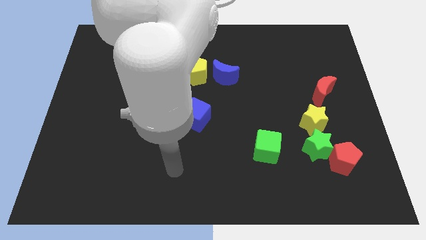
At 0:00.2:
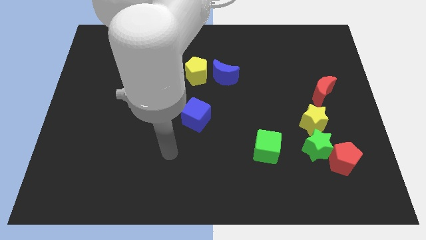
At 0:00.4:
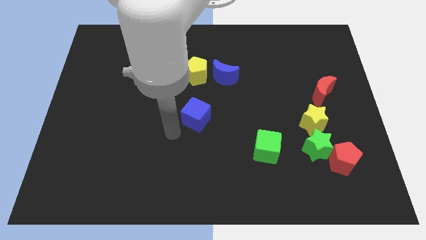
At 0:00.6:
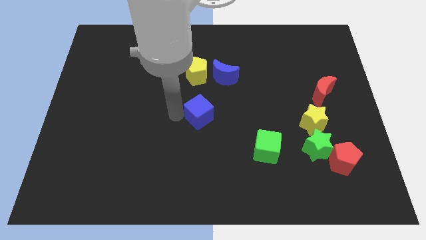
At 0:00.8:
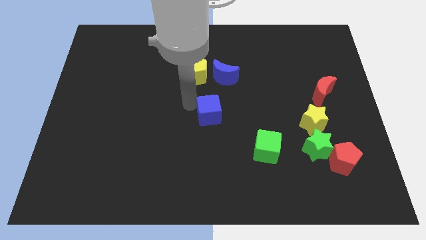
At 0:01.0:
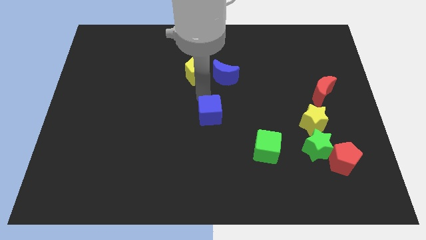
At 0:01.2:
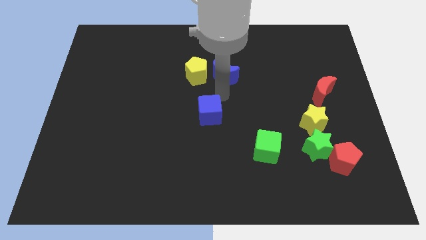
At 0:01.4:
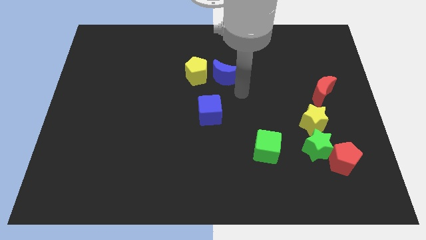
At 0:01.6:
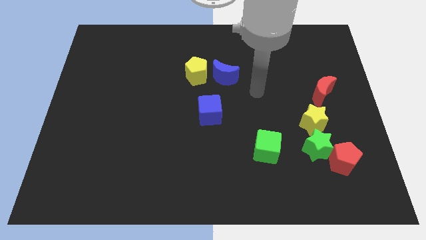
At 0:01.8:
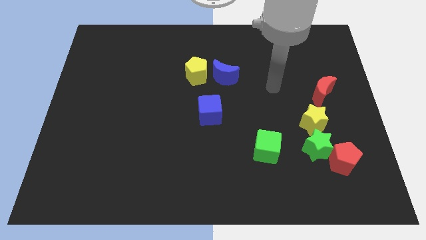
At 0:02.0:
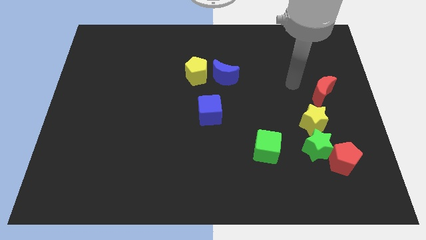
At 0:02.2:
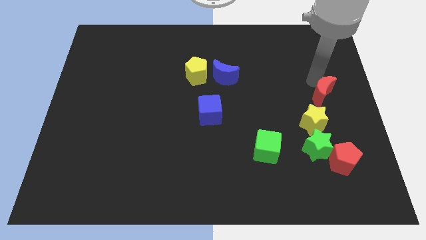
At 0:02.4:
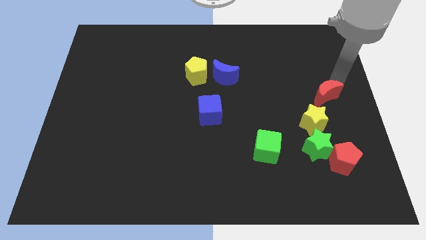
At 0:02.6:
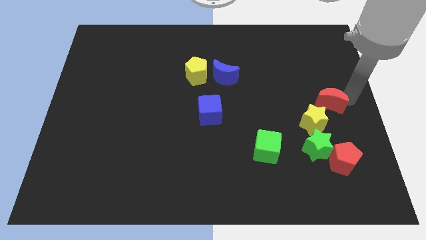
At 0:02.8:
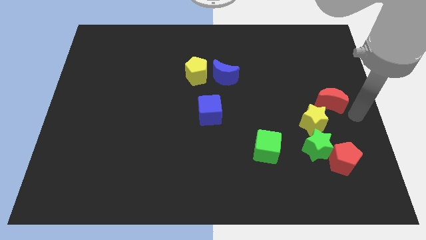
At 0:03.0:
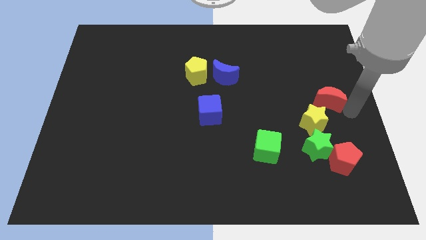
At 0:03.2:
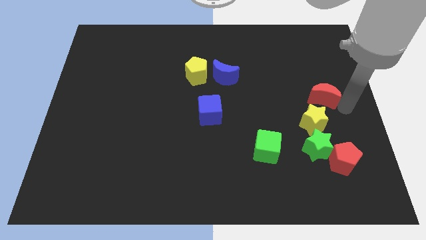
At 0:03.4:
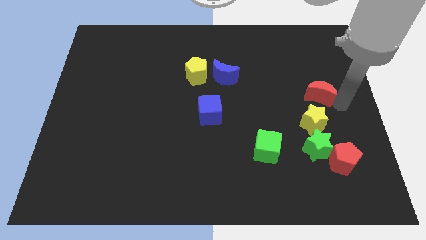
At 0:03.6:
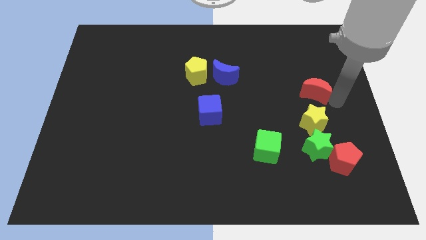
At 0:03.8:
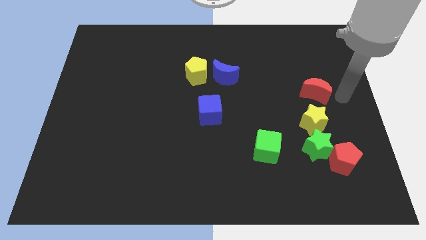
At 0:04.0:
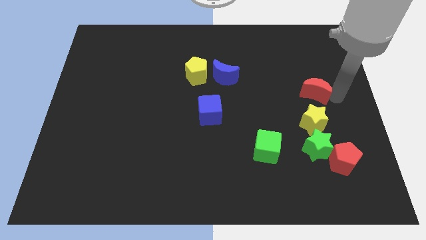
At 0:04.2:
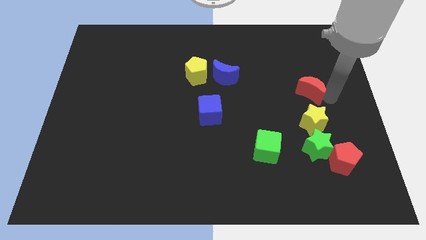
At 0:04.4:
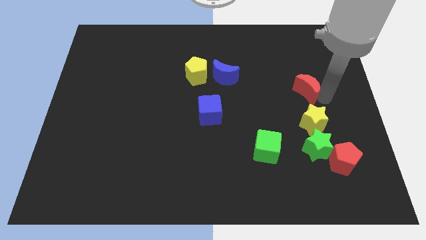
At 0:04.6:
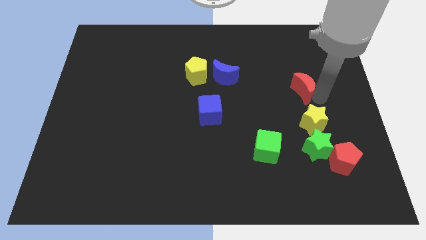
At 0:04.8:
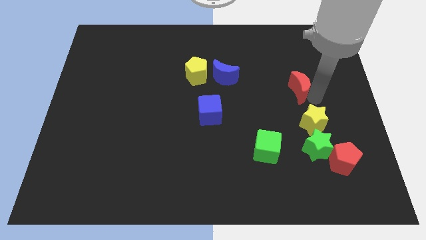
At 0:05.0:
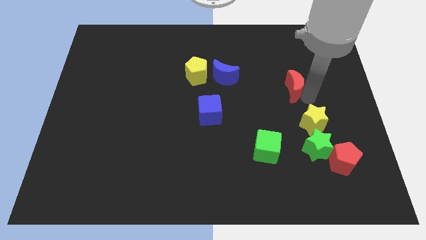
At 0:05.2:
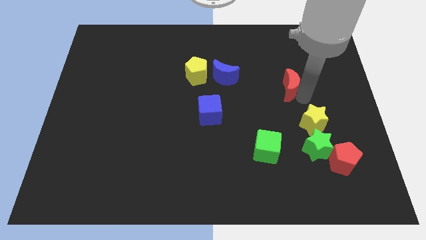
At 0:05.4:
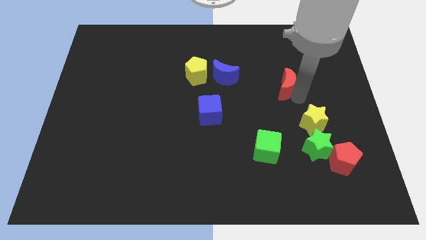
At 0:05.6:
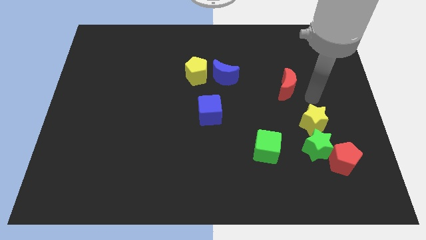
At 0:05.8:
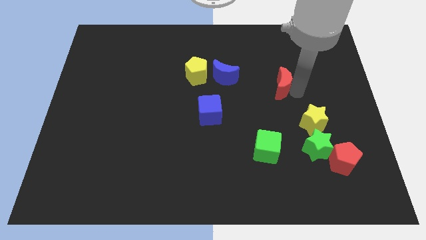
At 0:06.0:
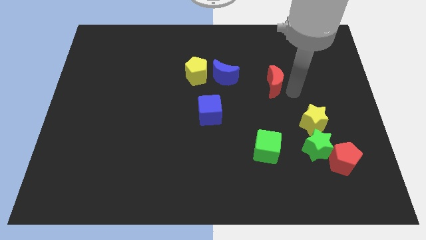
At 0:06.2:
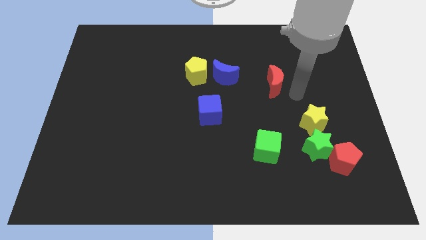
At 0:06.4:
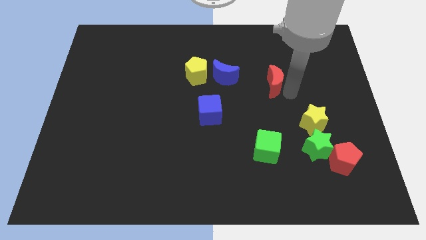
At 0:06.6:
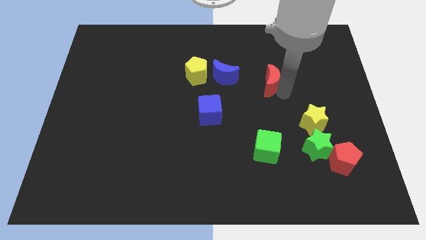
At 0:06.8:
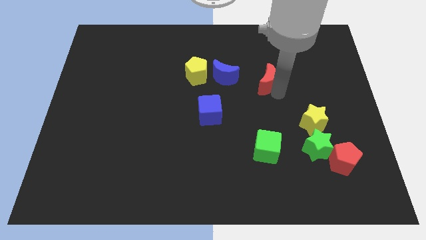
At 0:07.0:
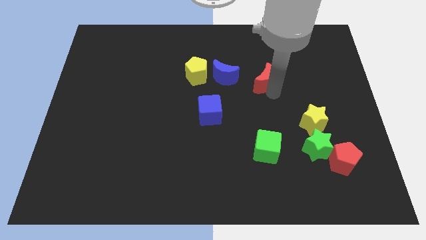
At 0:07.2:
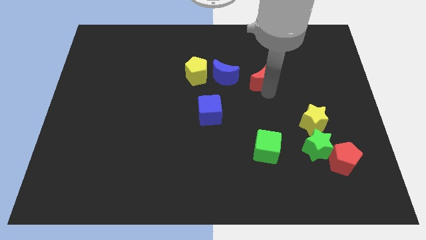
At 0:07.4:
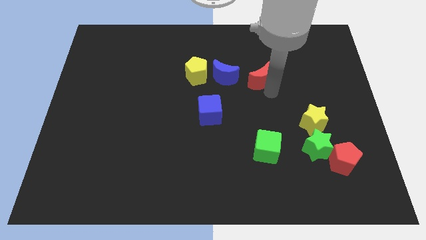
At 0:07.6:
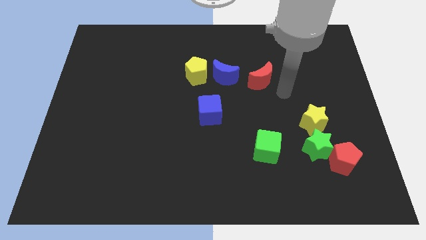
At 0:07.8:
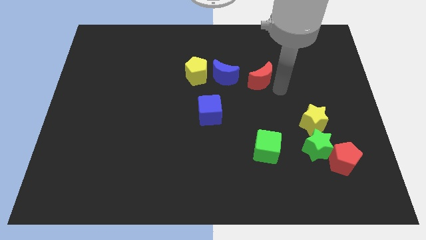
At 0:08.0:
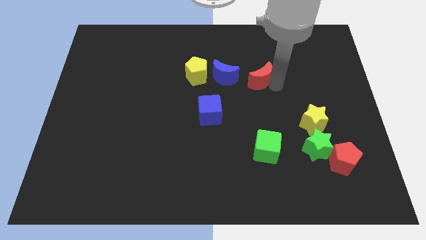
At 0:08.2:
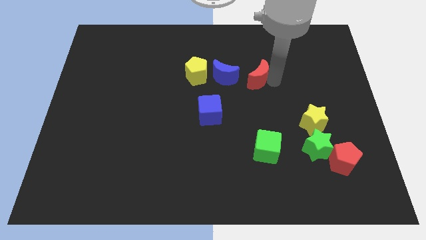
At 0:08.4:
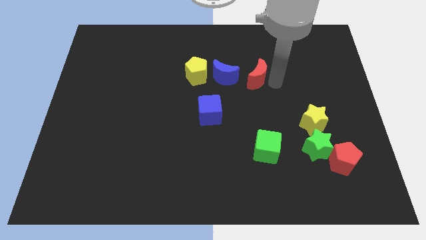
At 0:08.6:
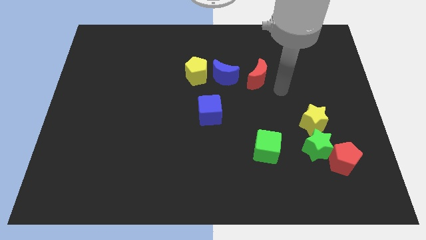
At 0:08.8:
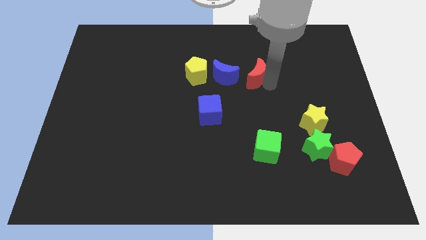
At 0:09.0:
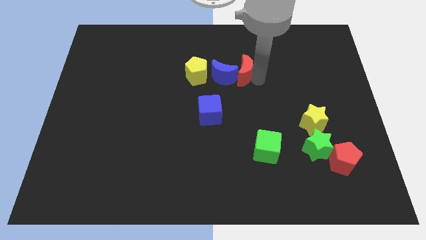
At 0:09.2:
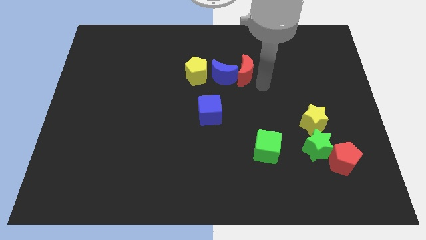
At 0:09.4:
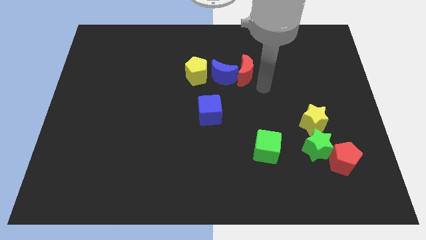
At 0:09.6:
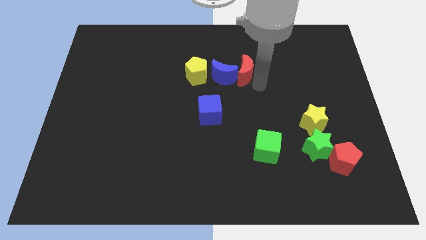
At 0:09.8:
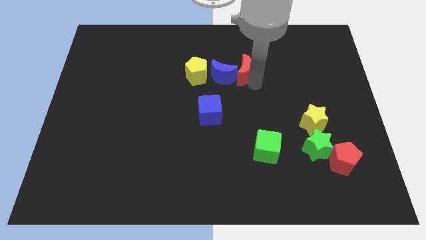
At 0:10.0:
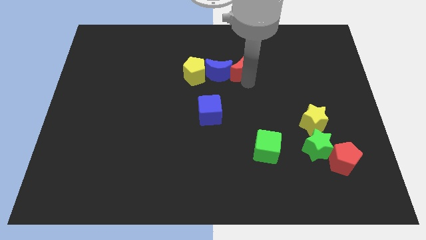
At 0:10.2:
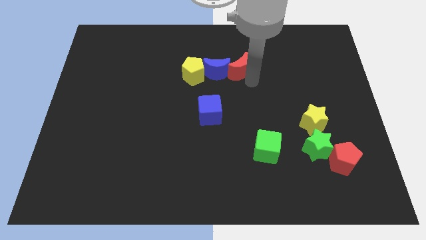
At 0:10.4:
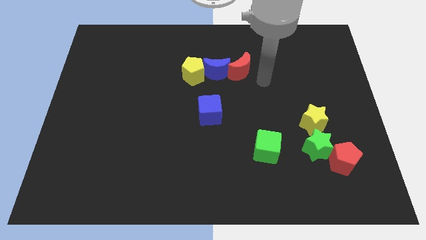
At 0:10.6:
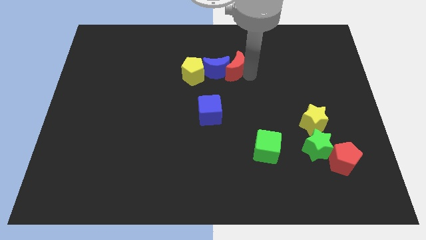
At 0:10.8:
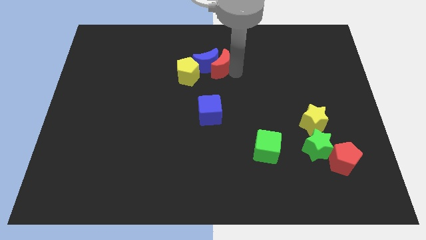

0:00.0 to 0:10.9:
push the red moon diagonally up and to the right of the yellow pentagon

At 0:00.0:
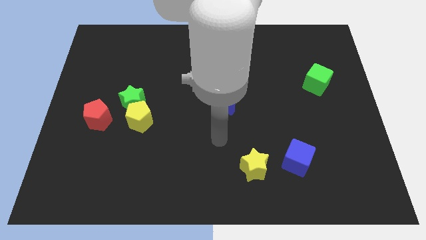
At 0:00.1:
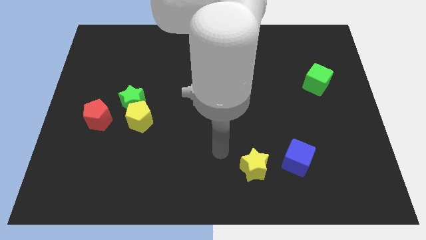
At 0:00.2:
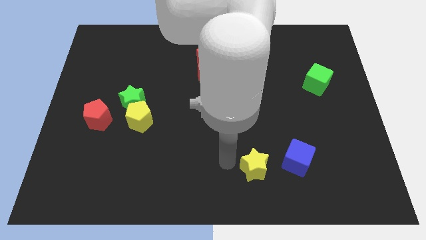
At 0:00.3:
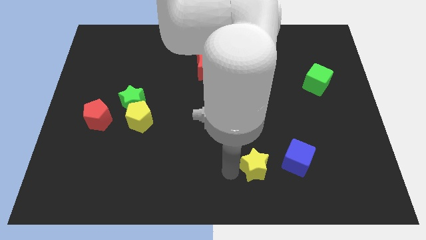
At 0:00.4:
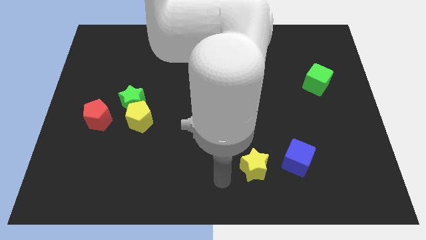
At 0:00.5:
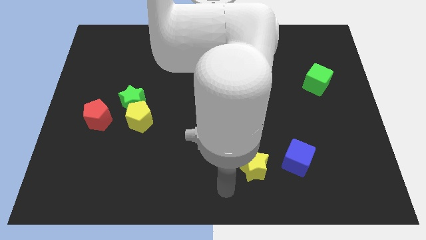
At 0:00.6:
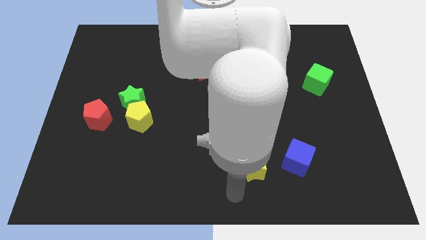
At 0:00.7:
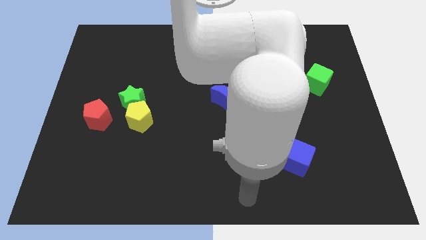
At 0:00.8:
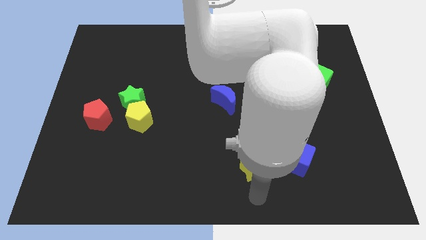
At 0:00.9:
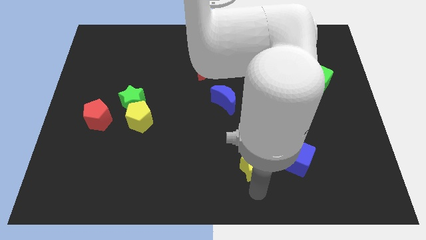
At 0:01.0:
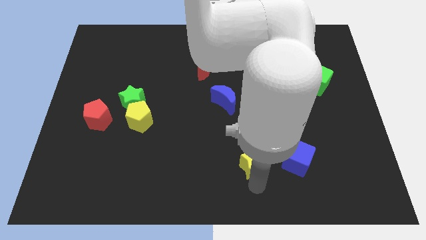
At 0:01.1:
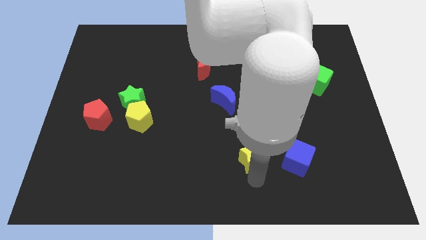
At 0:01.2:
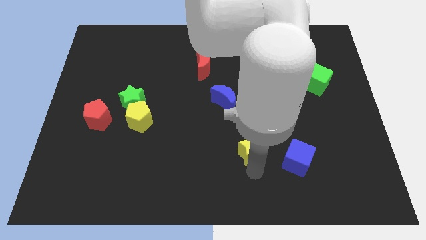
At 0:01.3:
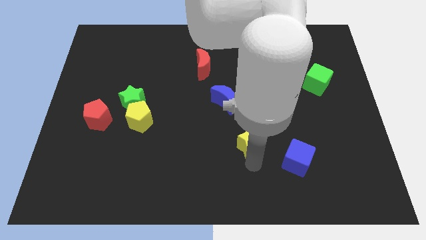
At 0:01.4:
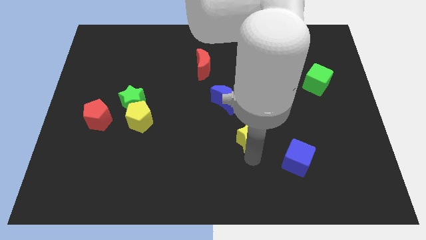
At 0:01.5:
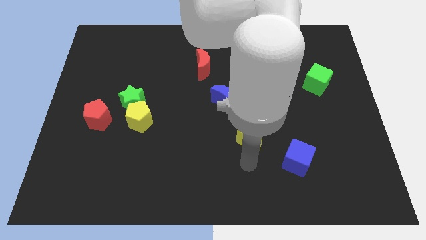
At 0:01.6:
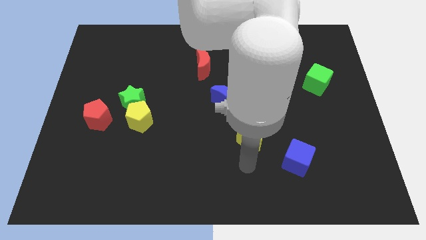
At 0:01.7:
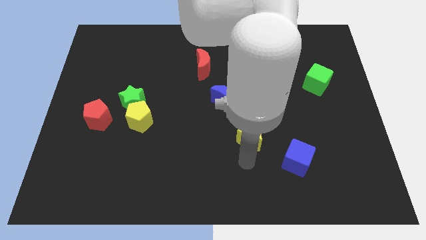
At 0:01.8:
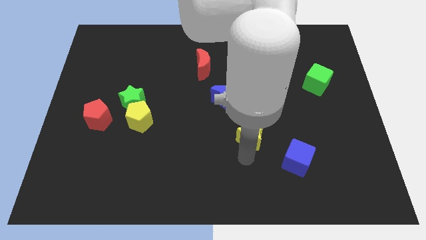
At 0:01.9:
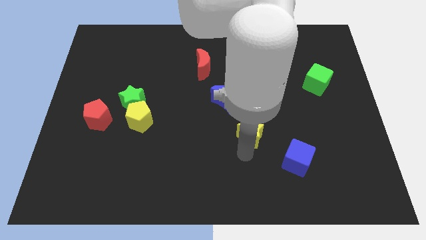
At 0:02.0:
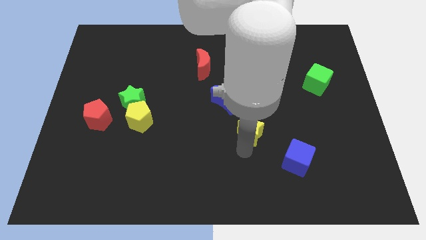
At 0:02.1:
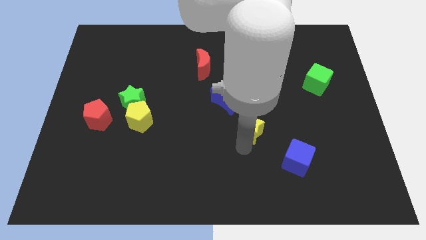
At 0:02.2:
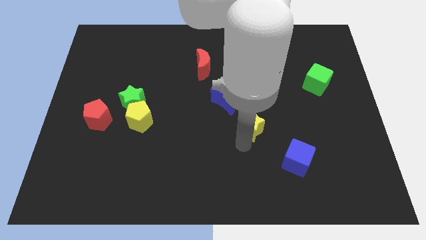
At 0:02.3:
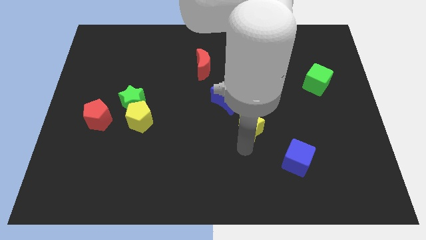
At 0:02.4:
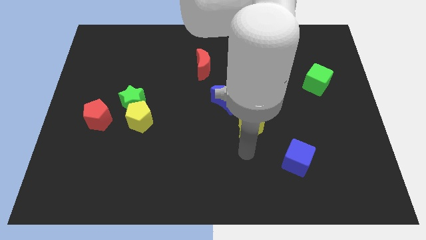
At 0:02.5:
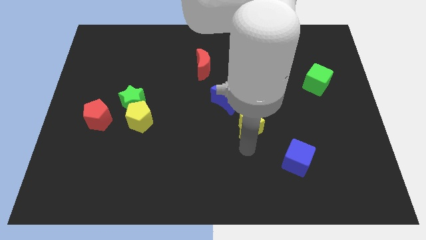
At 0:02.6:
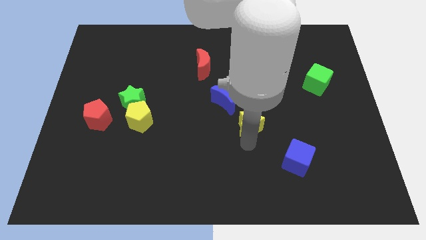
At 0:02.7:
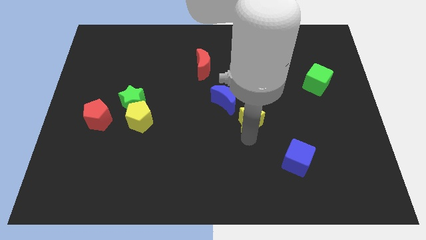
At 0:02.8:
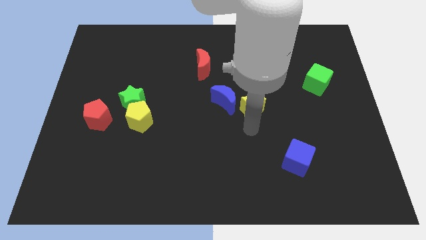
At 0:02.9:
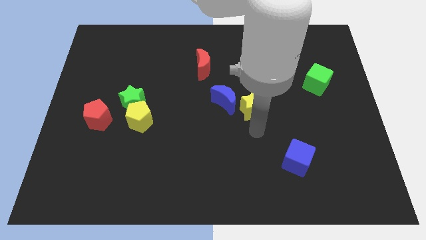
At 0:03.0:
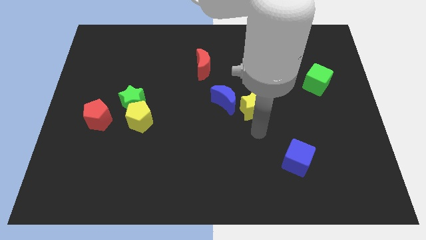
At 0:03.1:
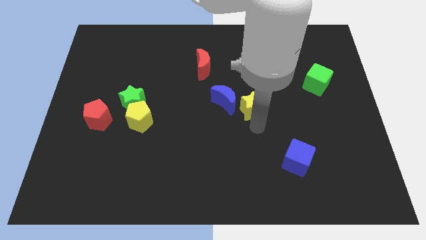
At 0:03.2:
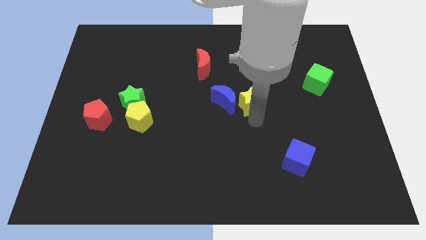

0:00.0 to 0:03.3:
push the yellow star to the top right side of the blue moon
